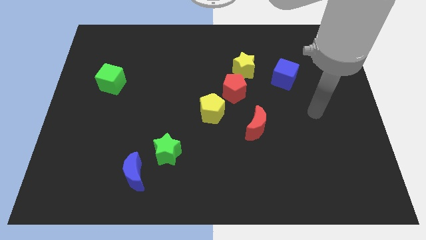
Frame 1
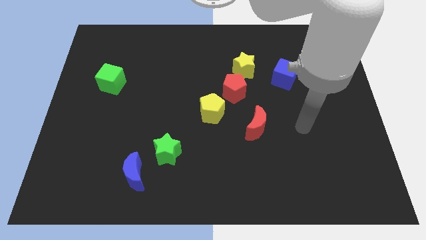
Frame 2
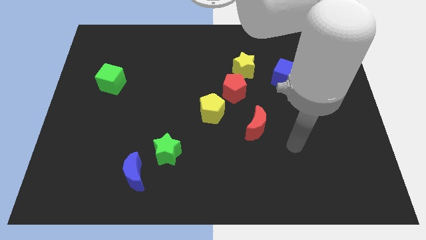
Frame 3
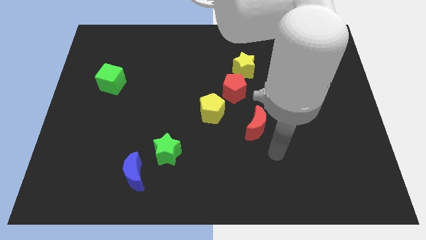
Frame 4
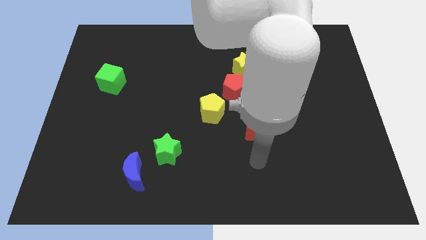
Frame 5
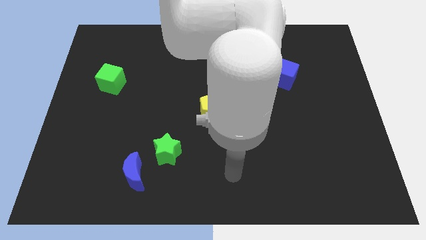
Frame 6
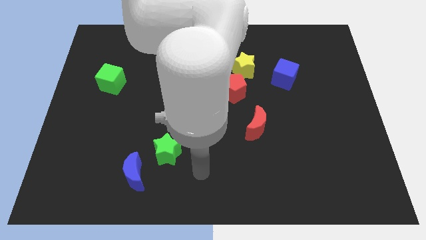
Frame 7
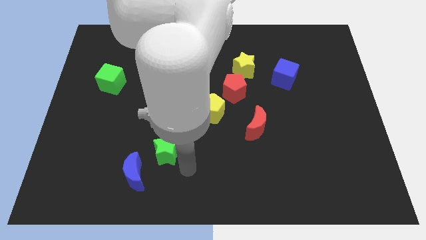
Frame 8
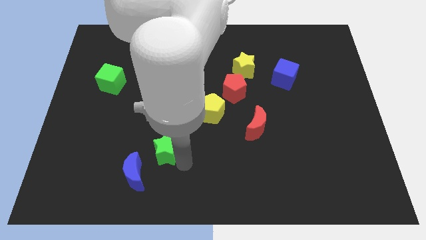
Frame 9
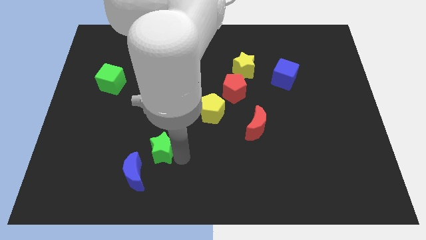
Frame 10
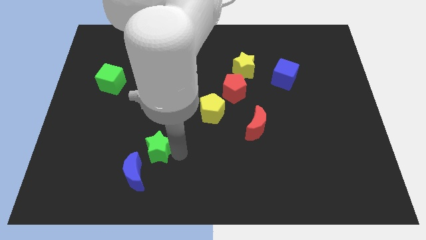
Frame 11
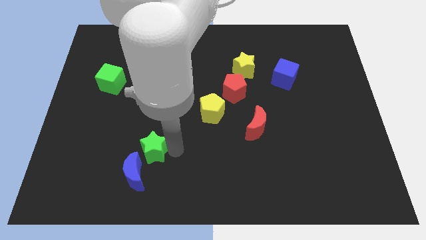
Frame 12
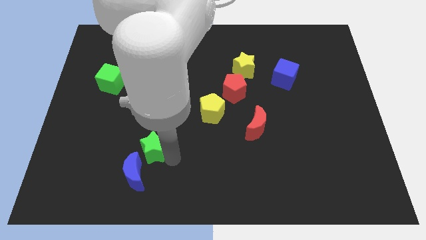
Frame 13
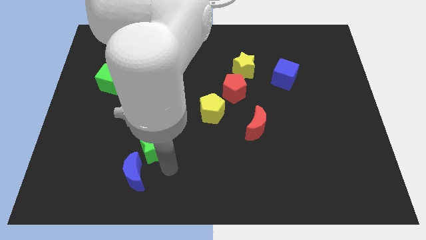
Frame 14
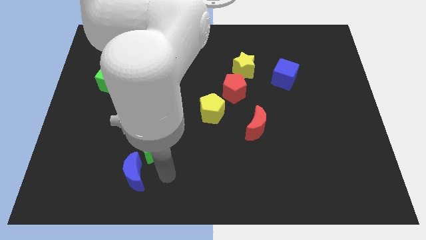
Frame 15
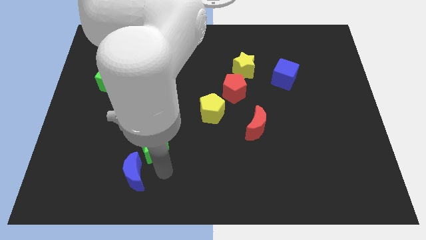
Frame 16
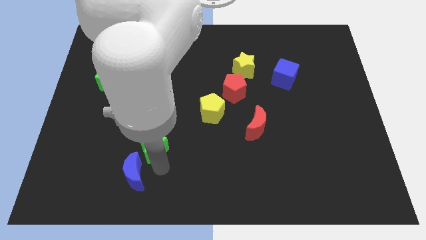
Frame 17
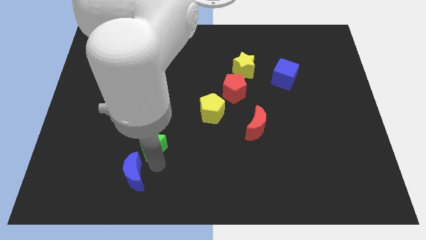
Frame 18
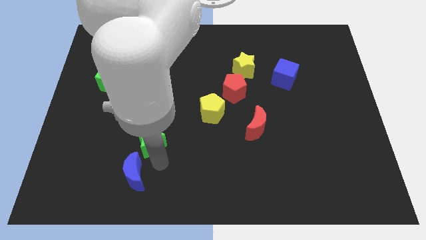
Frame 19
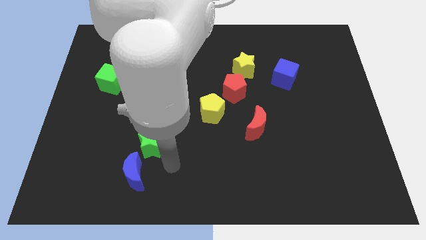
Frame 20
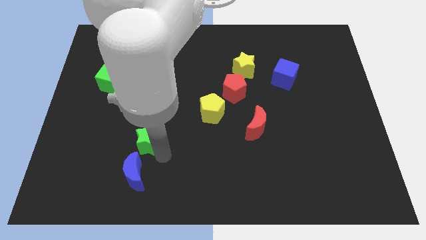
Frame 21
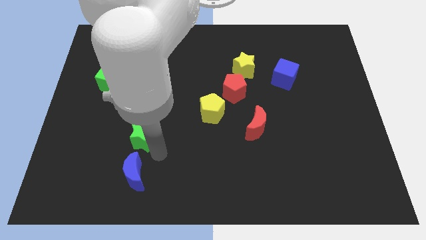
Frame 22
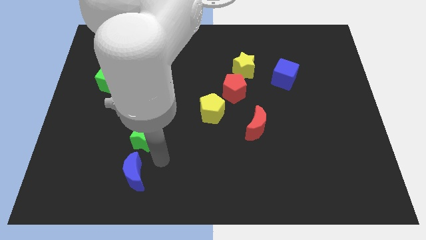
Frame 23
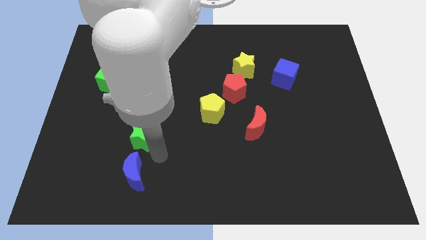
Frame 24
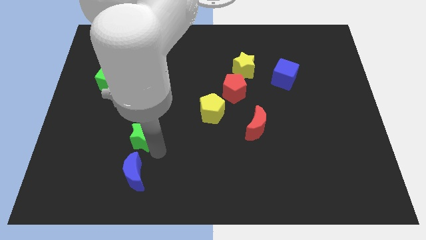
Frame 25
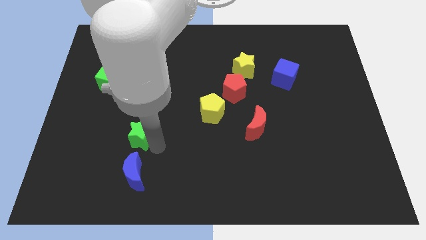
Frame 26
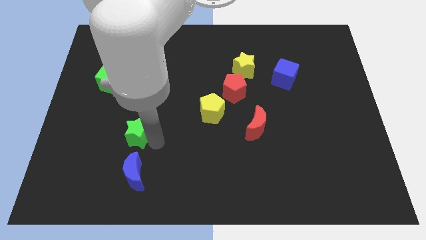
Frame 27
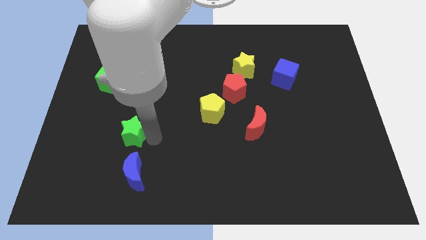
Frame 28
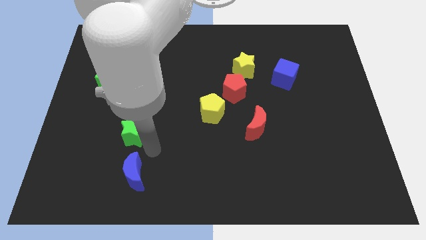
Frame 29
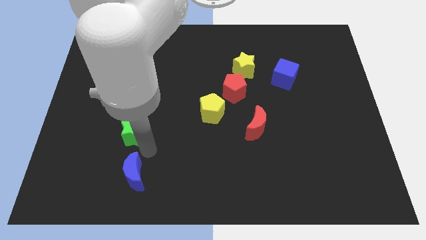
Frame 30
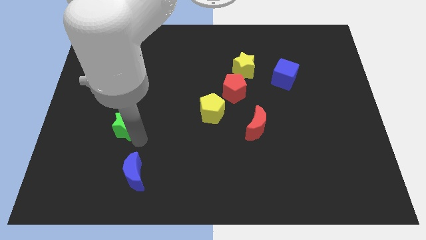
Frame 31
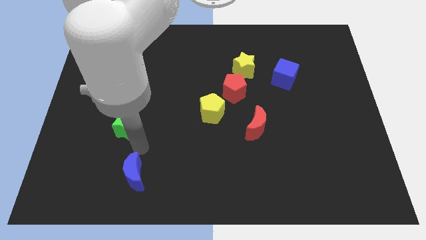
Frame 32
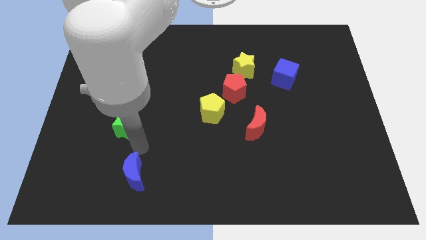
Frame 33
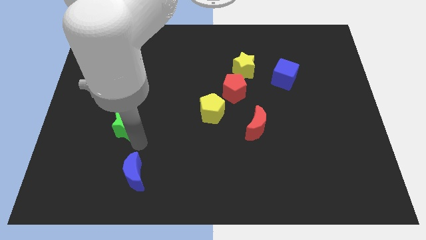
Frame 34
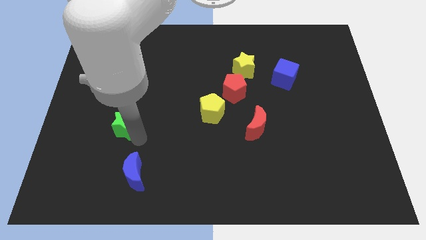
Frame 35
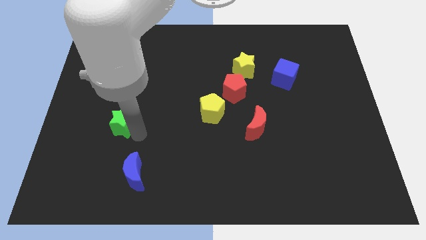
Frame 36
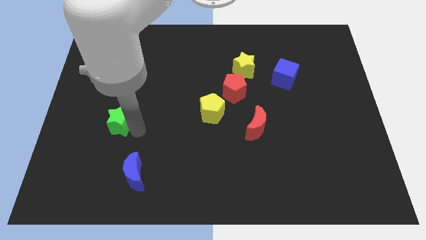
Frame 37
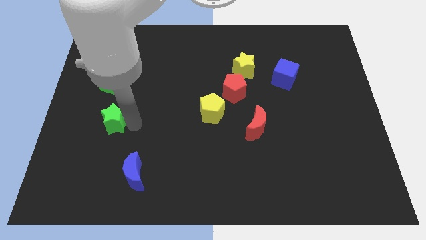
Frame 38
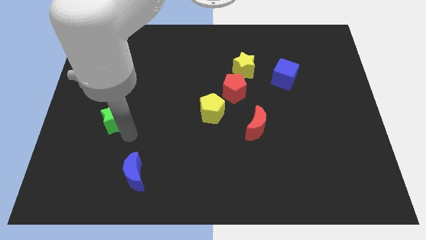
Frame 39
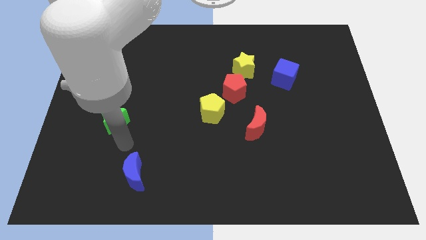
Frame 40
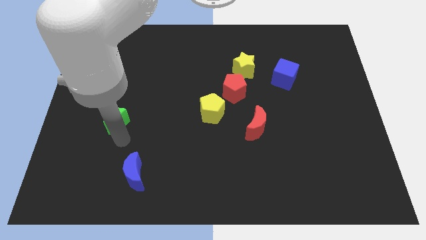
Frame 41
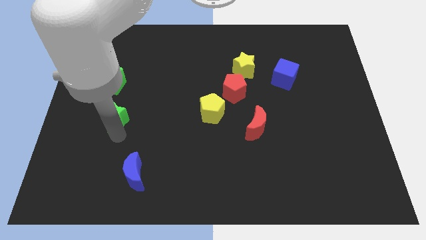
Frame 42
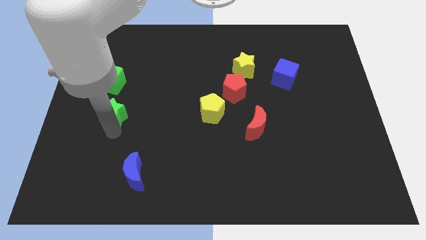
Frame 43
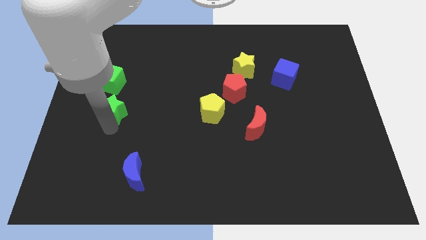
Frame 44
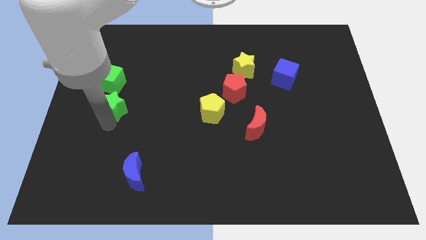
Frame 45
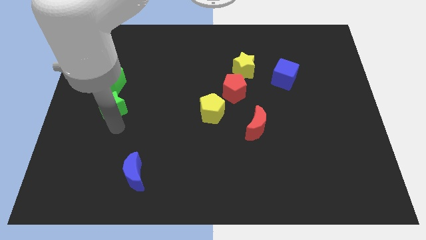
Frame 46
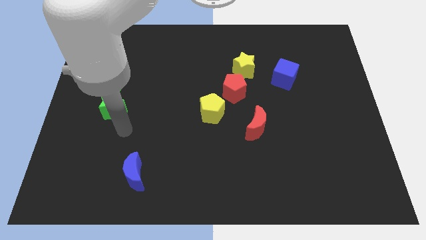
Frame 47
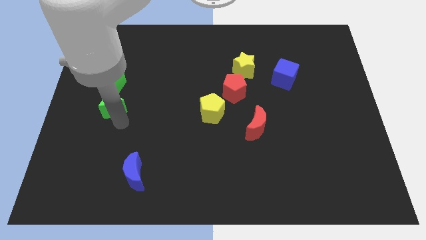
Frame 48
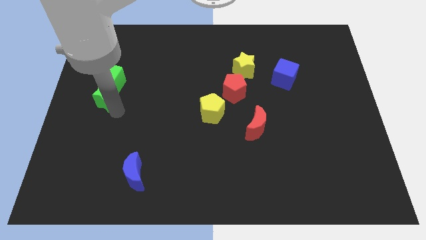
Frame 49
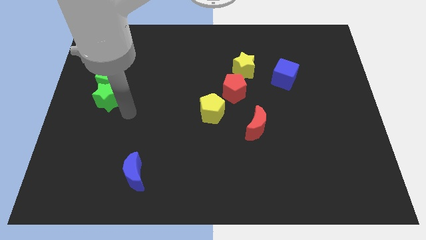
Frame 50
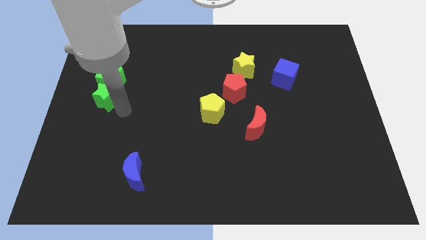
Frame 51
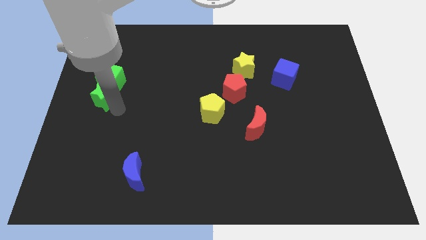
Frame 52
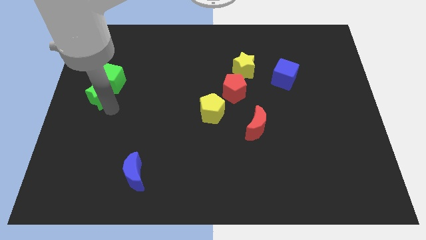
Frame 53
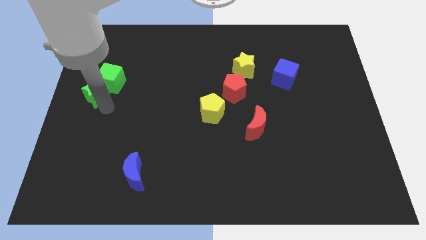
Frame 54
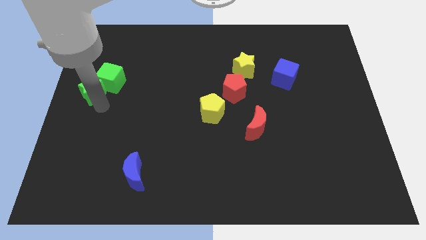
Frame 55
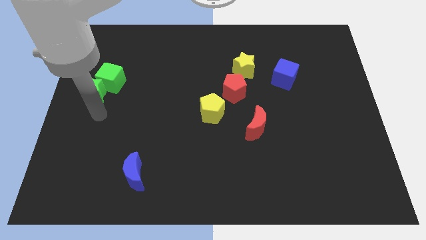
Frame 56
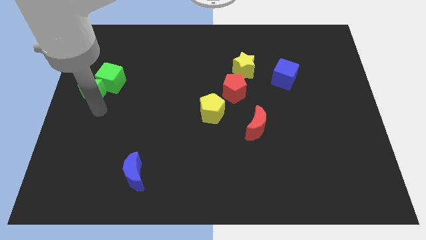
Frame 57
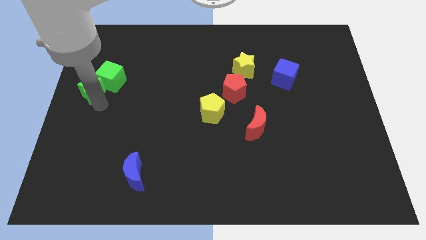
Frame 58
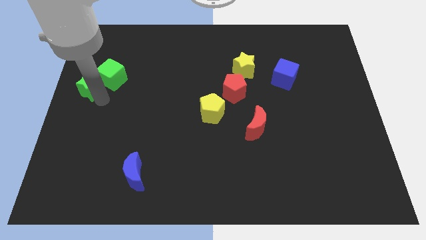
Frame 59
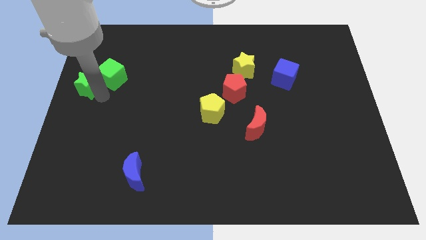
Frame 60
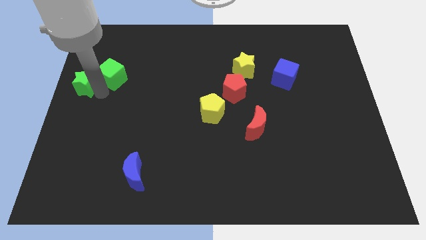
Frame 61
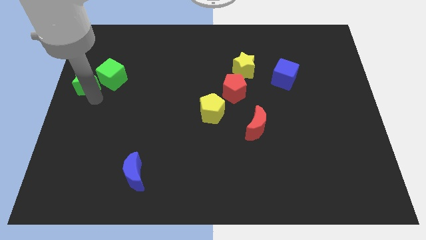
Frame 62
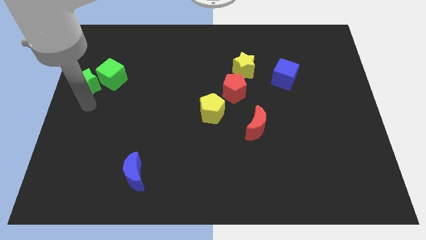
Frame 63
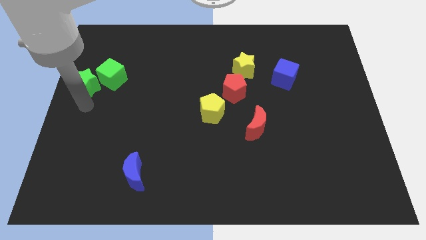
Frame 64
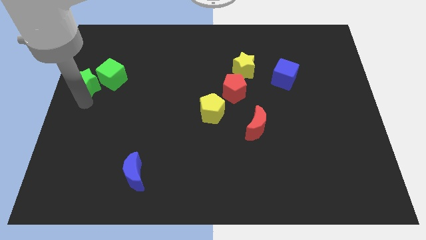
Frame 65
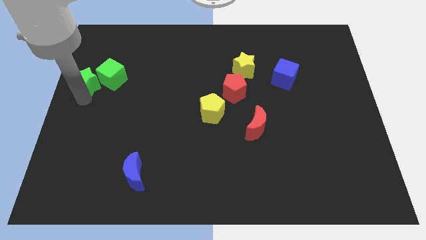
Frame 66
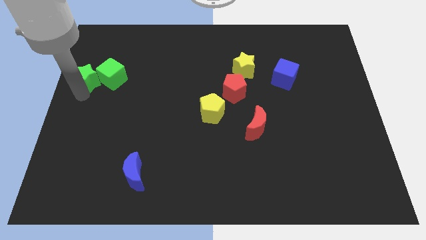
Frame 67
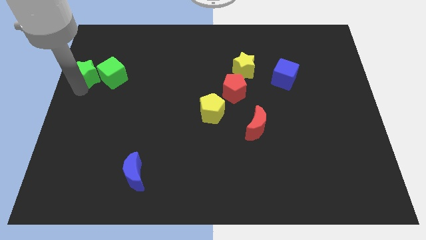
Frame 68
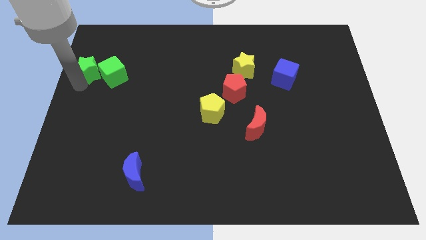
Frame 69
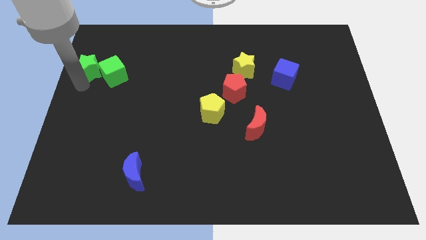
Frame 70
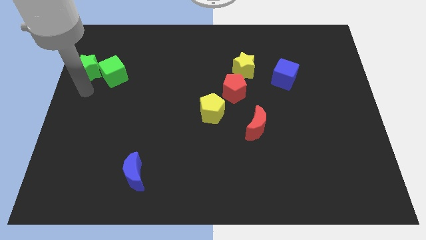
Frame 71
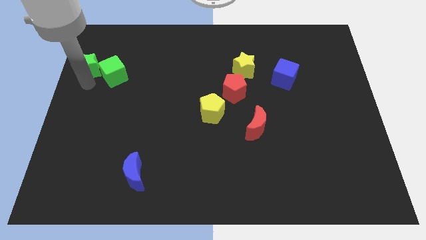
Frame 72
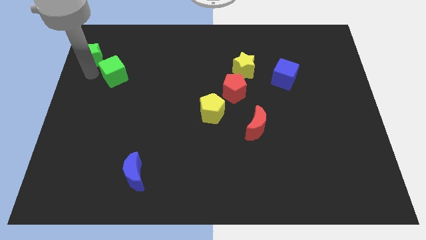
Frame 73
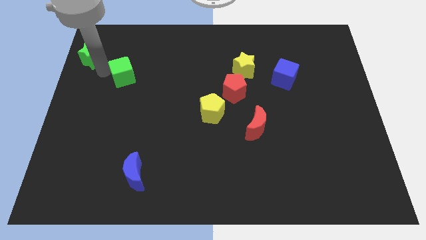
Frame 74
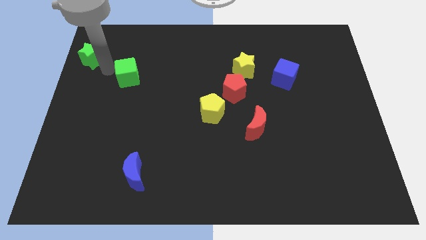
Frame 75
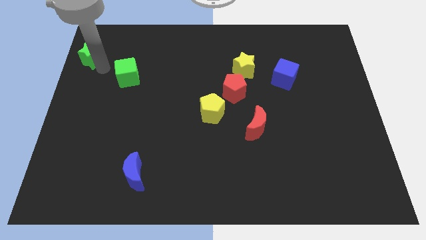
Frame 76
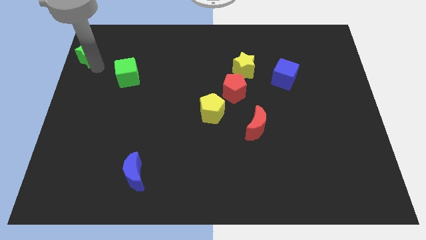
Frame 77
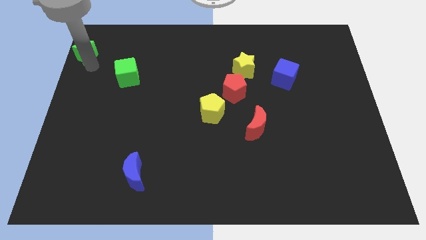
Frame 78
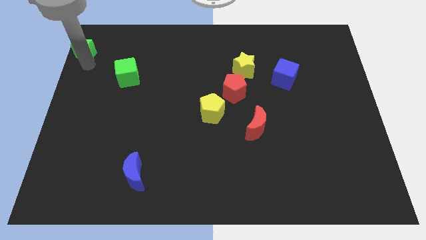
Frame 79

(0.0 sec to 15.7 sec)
put the green star to the top left corner
